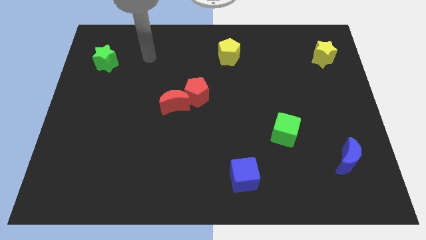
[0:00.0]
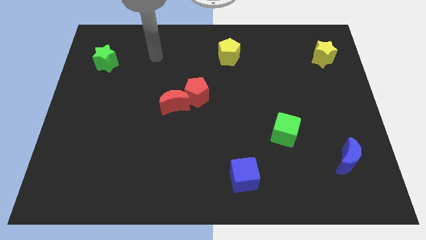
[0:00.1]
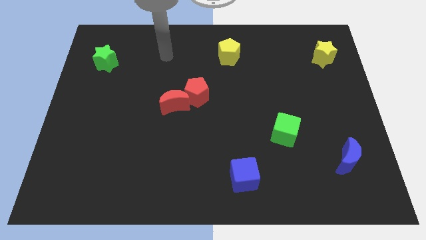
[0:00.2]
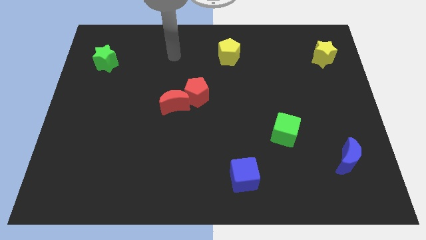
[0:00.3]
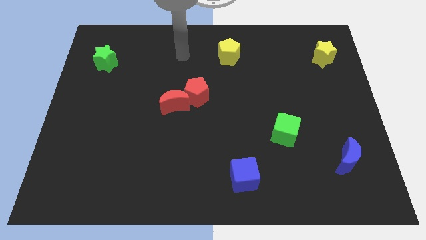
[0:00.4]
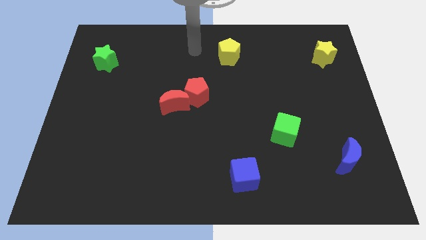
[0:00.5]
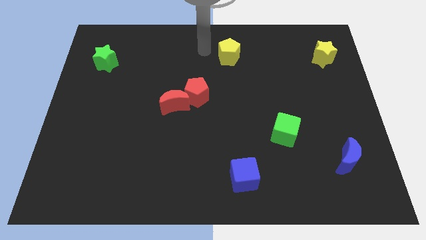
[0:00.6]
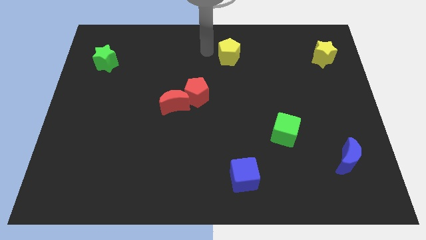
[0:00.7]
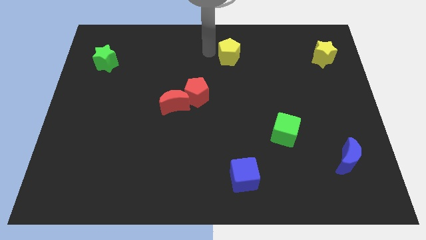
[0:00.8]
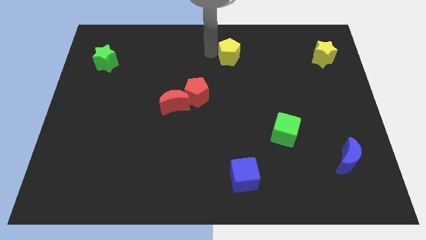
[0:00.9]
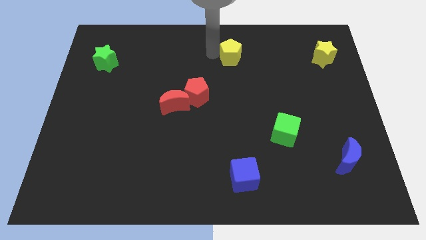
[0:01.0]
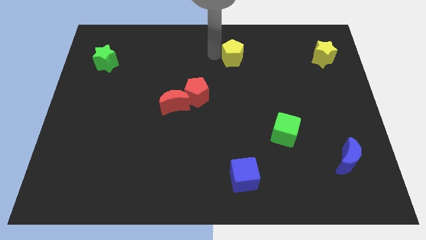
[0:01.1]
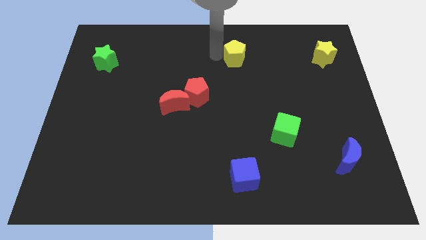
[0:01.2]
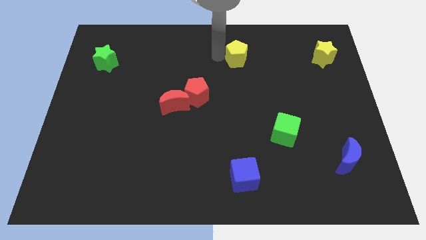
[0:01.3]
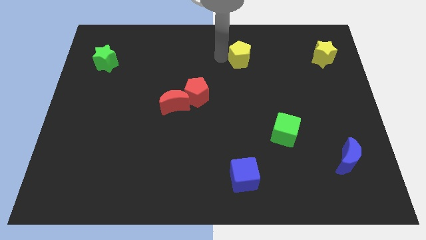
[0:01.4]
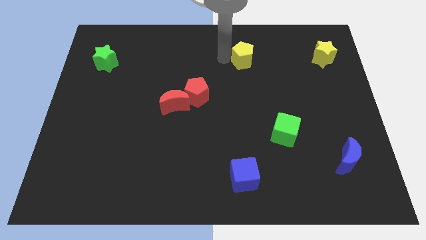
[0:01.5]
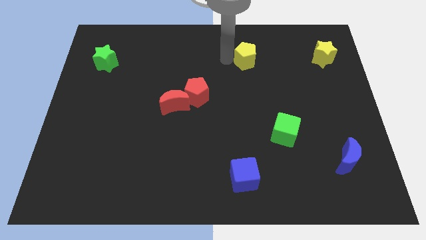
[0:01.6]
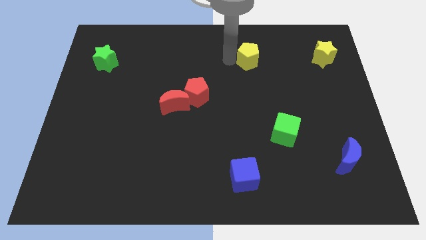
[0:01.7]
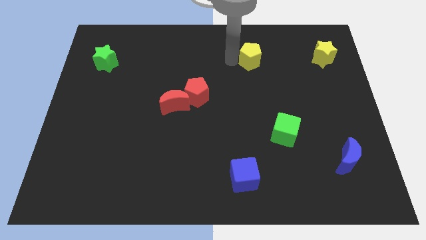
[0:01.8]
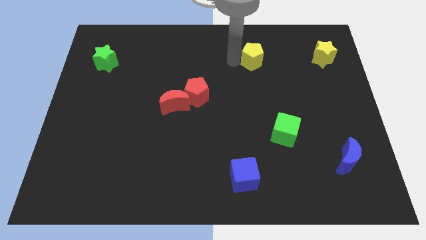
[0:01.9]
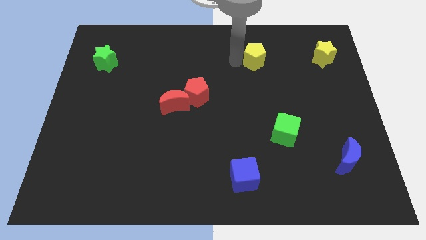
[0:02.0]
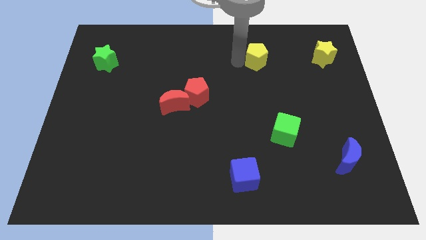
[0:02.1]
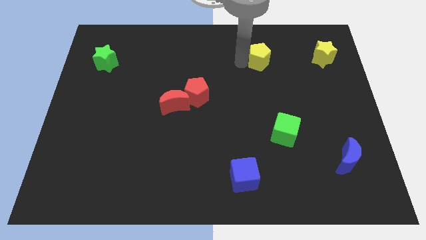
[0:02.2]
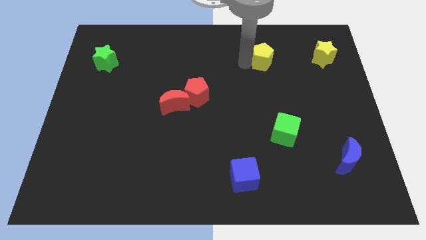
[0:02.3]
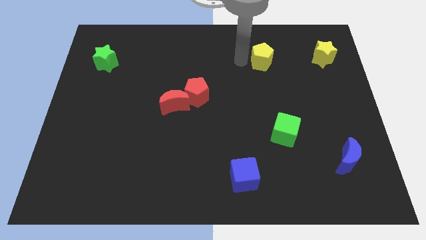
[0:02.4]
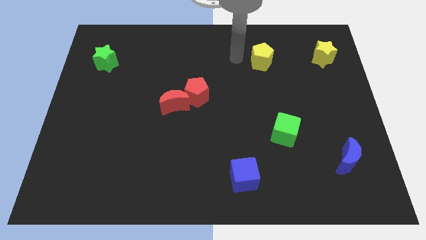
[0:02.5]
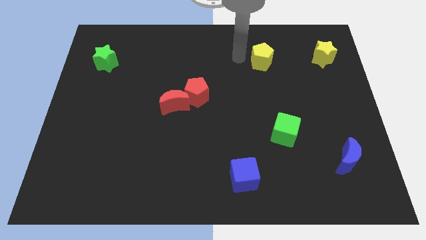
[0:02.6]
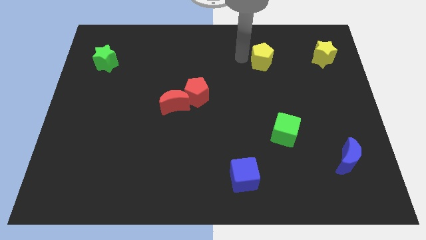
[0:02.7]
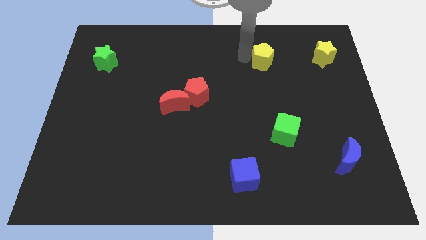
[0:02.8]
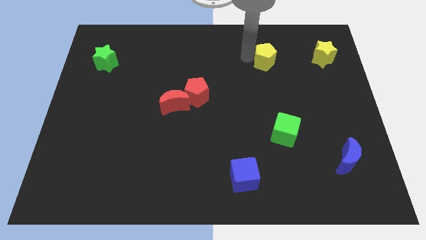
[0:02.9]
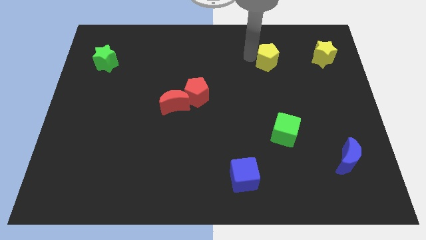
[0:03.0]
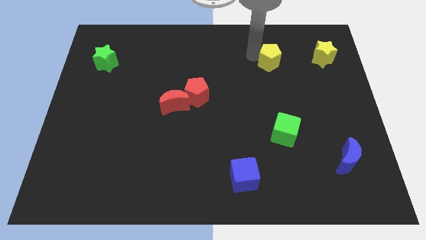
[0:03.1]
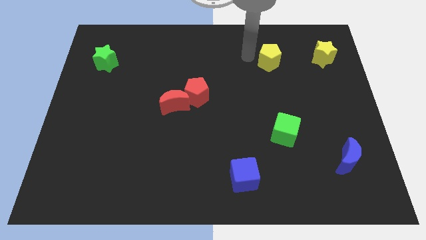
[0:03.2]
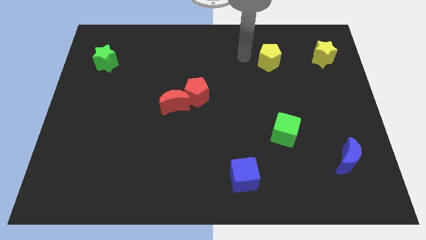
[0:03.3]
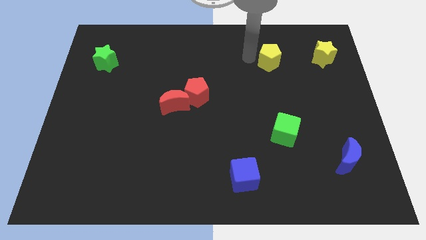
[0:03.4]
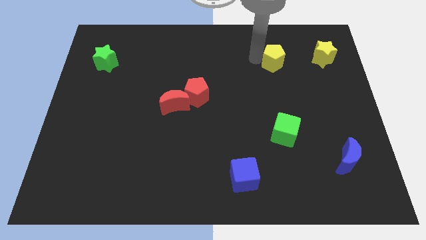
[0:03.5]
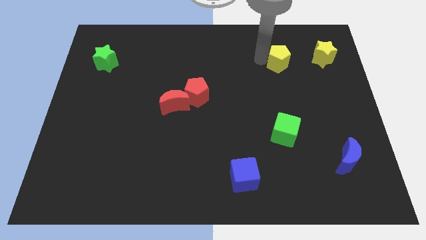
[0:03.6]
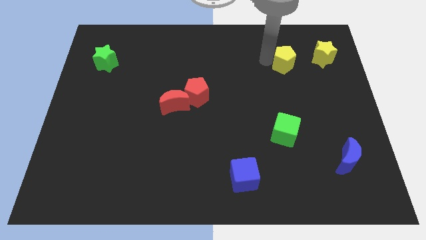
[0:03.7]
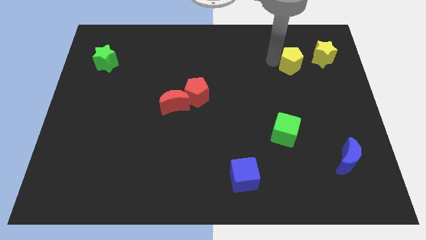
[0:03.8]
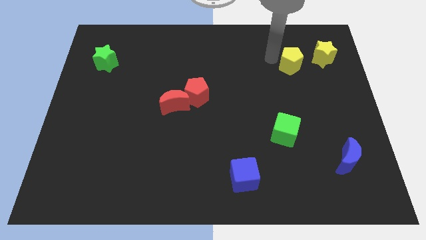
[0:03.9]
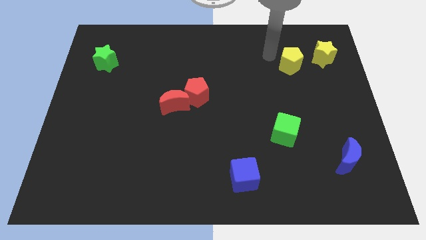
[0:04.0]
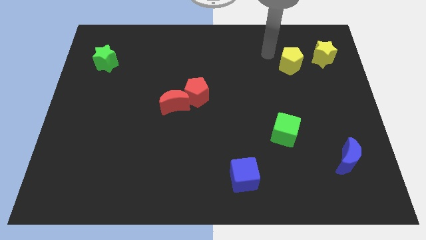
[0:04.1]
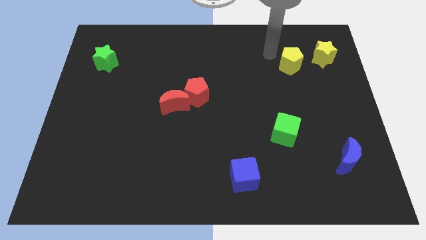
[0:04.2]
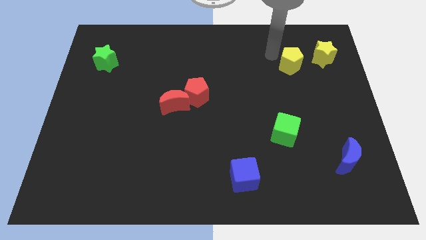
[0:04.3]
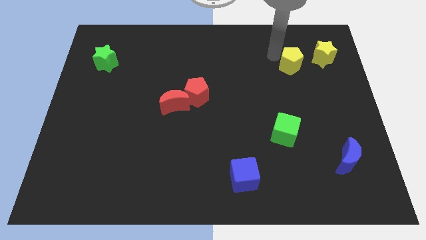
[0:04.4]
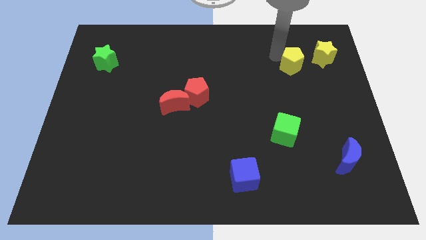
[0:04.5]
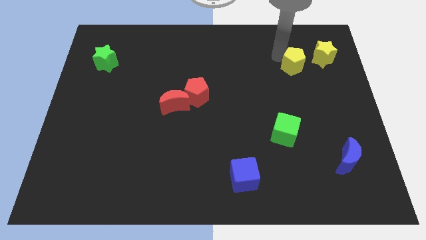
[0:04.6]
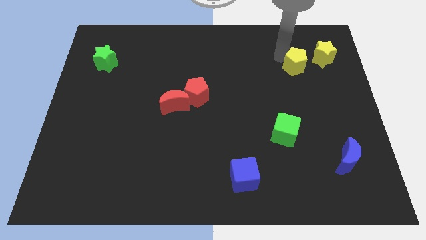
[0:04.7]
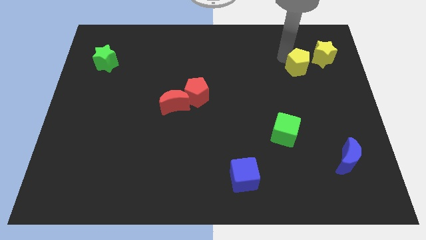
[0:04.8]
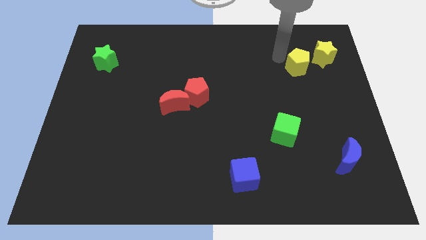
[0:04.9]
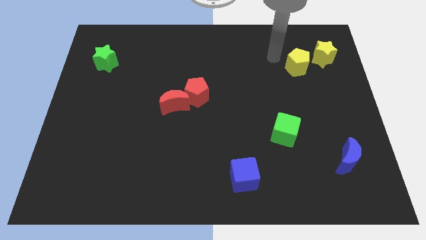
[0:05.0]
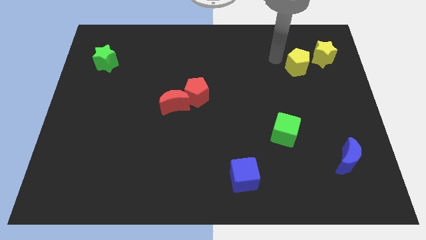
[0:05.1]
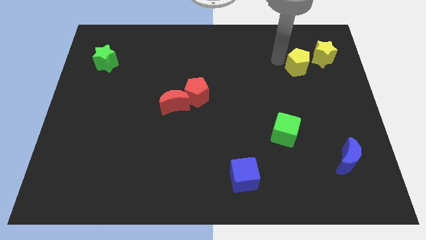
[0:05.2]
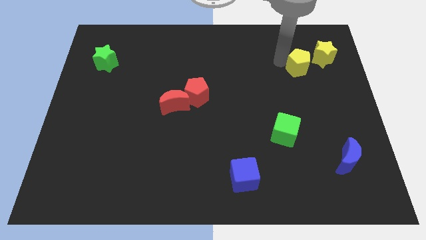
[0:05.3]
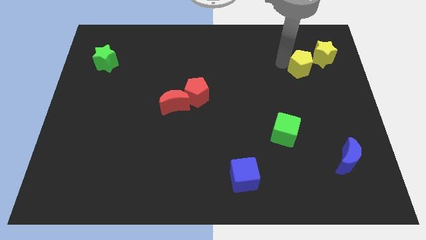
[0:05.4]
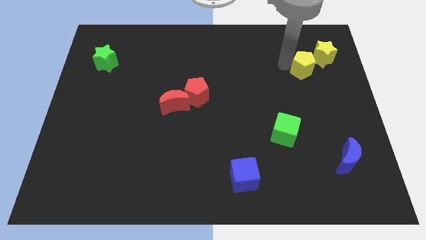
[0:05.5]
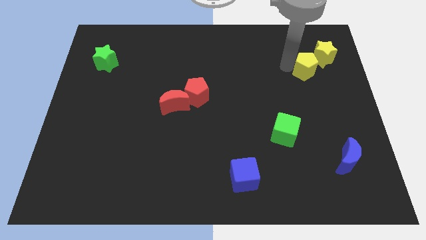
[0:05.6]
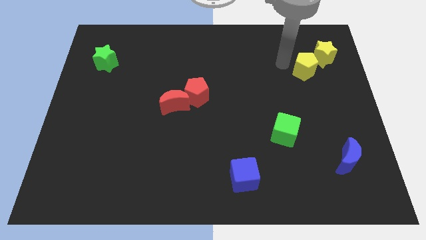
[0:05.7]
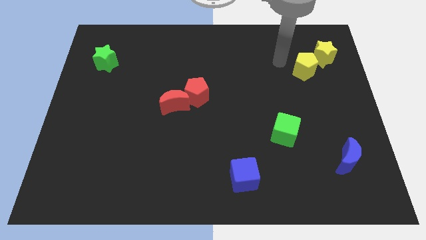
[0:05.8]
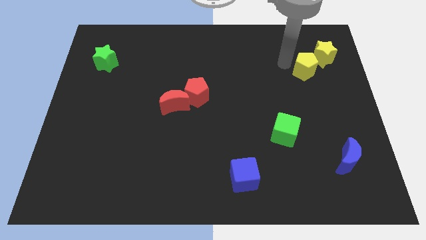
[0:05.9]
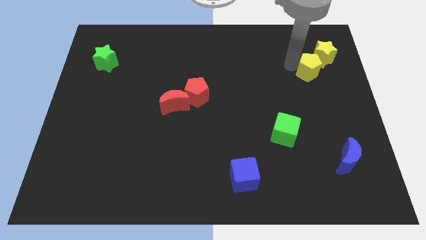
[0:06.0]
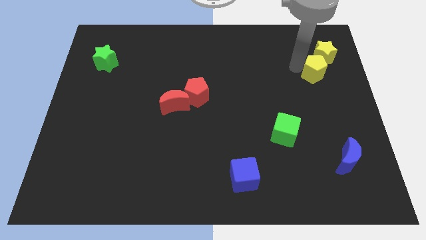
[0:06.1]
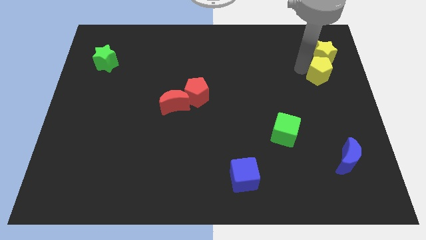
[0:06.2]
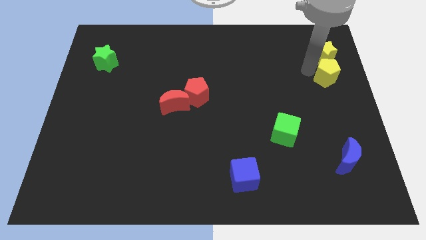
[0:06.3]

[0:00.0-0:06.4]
put the yellow pentagon to the right side
